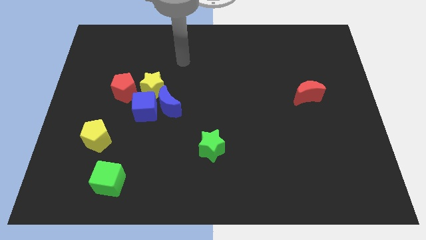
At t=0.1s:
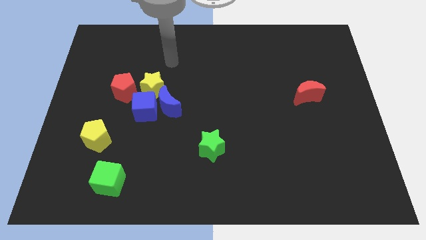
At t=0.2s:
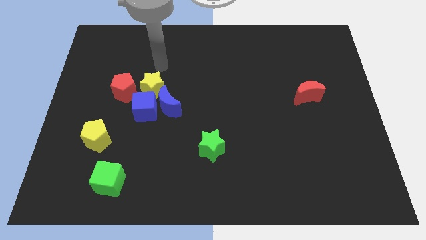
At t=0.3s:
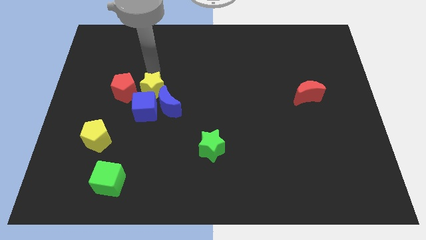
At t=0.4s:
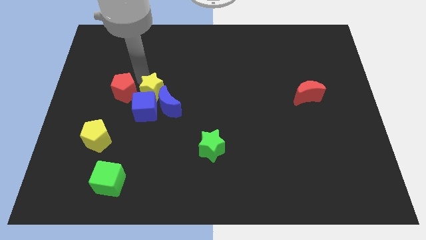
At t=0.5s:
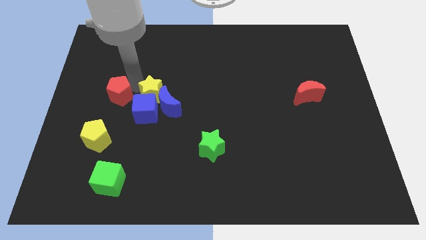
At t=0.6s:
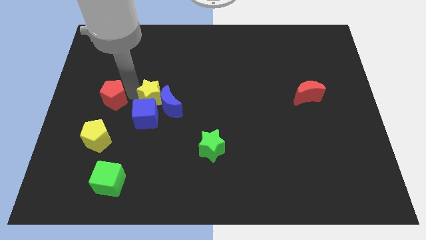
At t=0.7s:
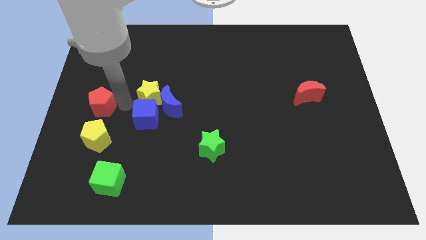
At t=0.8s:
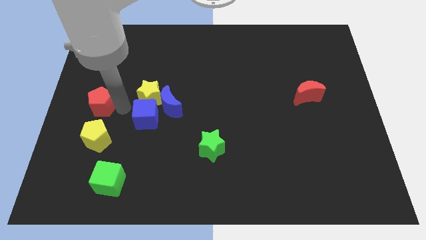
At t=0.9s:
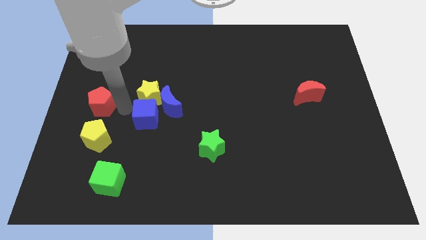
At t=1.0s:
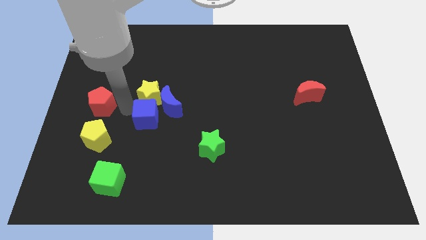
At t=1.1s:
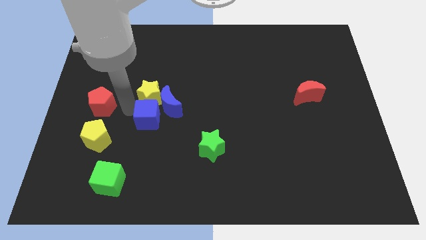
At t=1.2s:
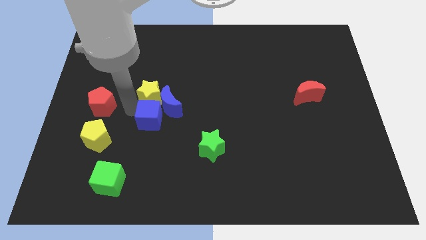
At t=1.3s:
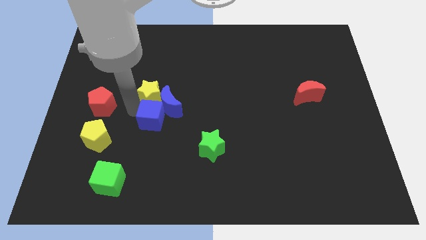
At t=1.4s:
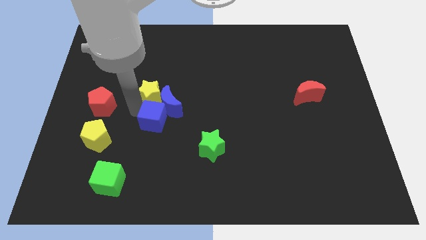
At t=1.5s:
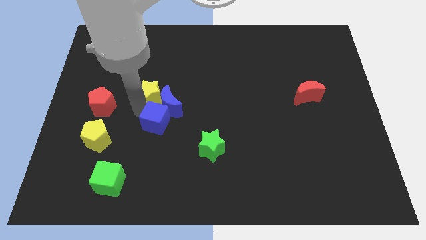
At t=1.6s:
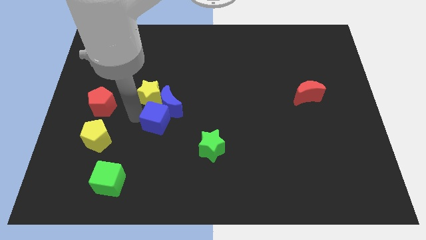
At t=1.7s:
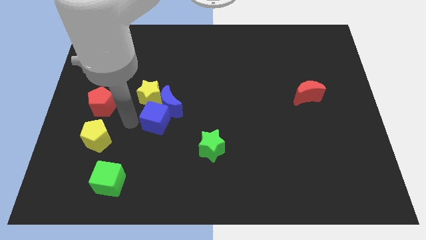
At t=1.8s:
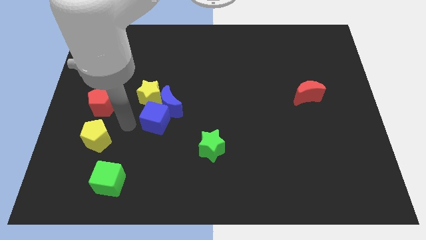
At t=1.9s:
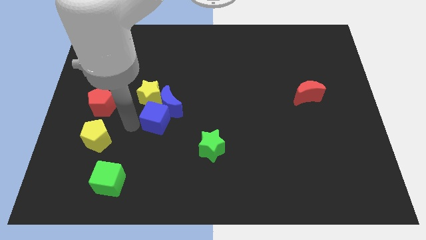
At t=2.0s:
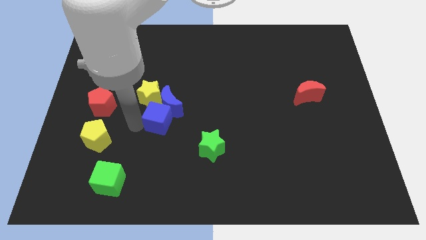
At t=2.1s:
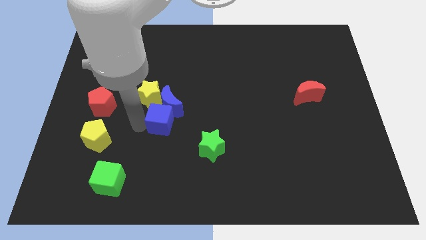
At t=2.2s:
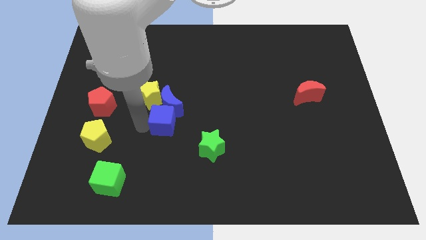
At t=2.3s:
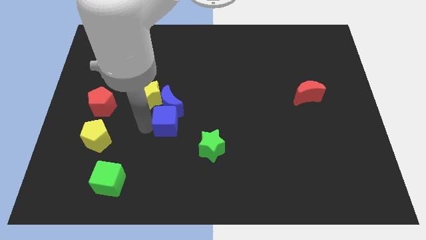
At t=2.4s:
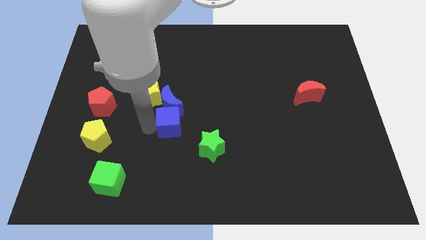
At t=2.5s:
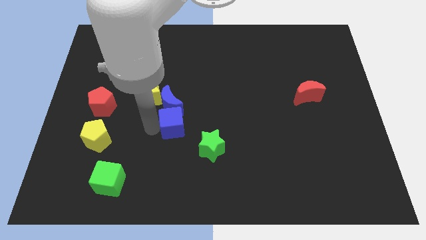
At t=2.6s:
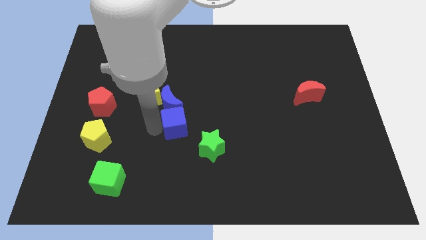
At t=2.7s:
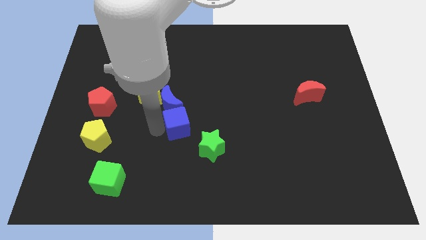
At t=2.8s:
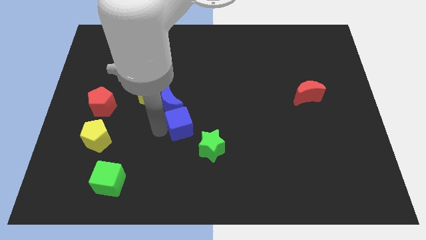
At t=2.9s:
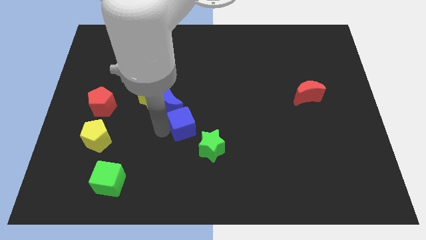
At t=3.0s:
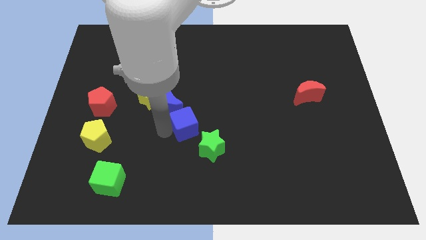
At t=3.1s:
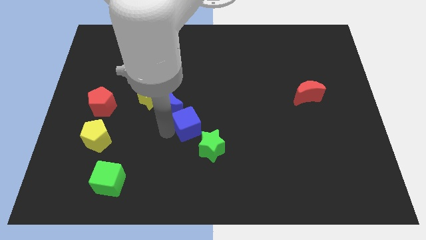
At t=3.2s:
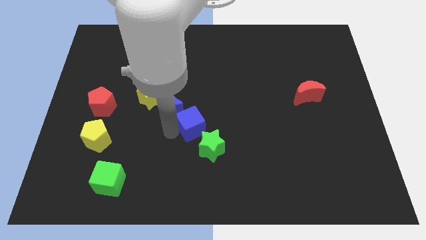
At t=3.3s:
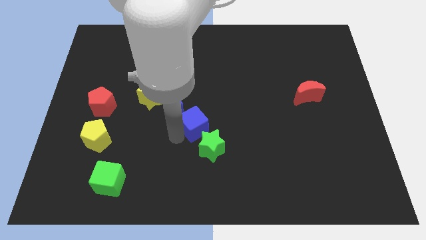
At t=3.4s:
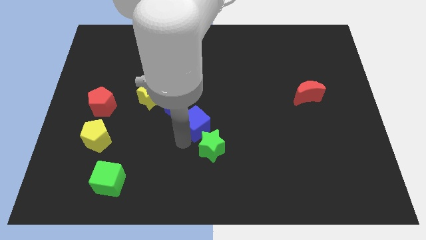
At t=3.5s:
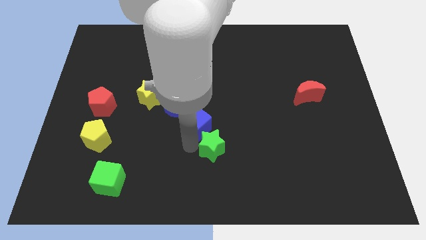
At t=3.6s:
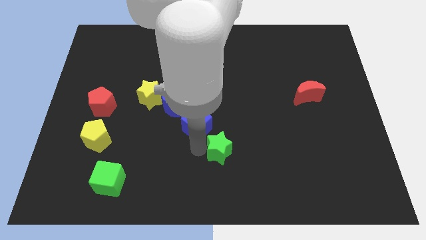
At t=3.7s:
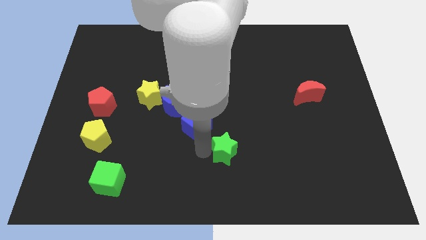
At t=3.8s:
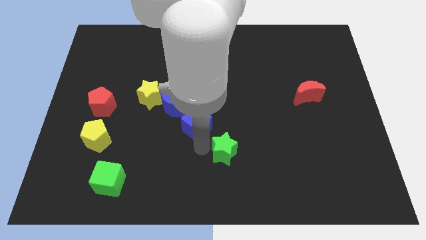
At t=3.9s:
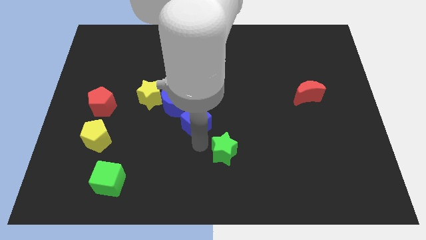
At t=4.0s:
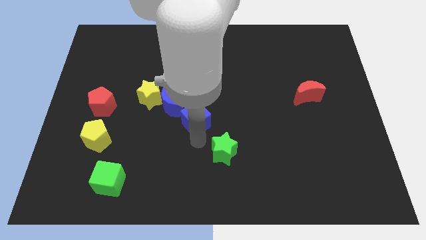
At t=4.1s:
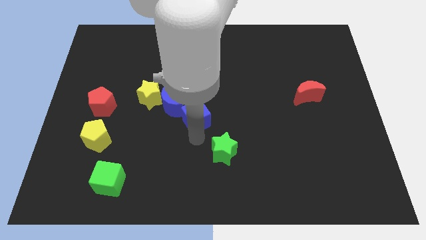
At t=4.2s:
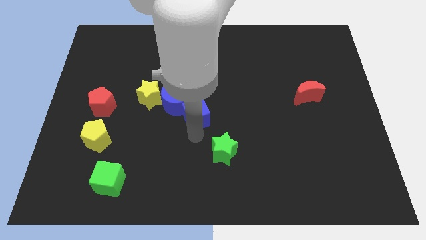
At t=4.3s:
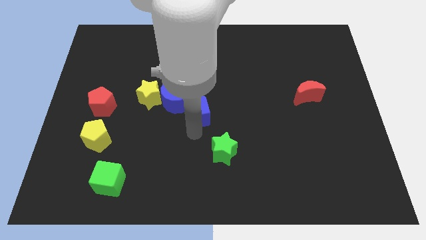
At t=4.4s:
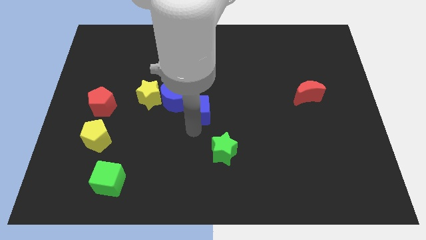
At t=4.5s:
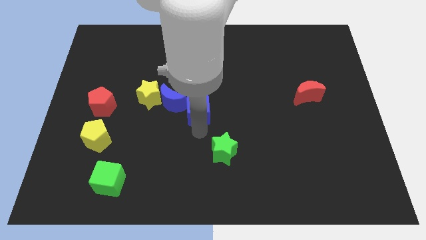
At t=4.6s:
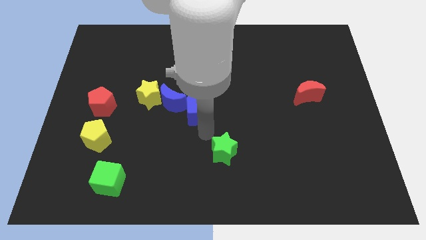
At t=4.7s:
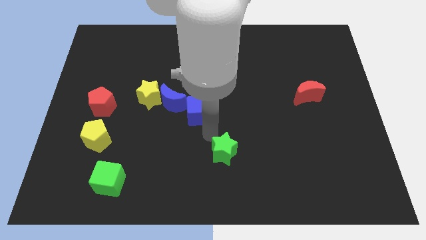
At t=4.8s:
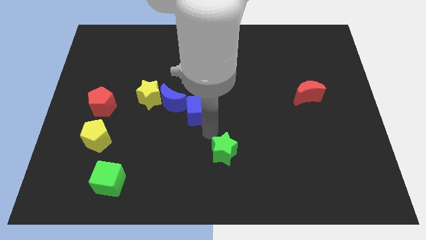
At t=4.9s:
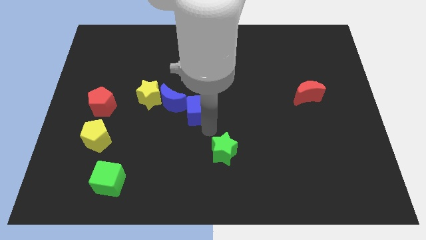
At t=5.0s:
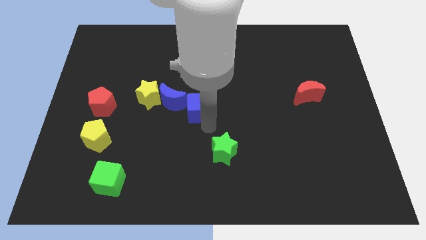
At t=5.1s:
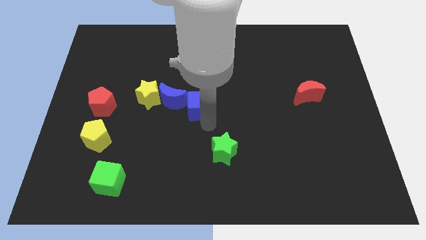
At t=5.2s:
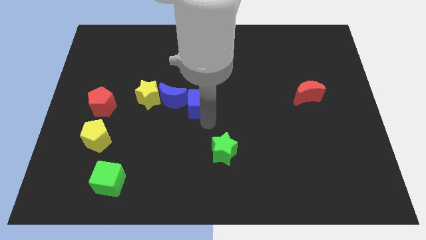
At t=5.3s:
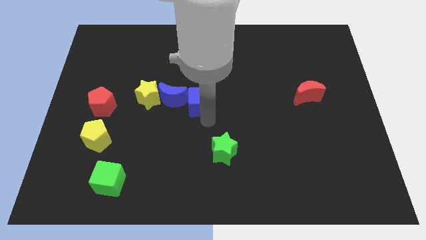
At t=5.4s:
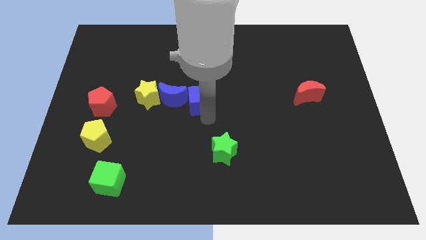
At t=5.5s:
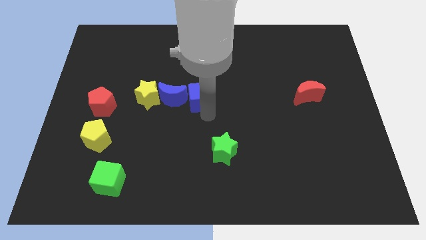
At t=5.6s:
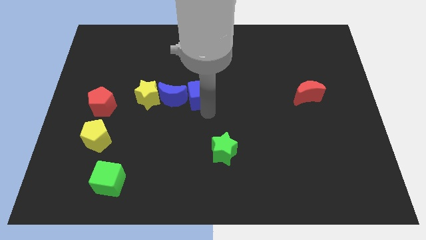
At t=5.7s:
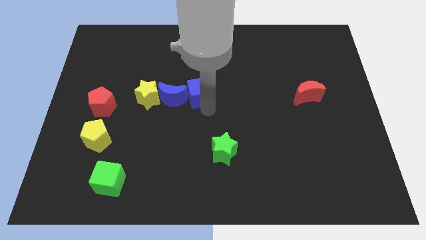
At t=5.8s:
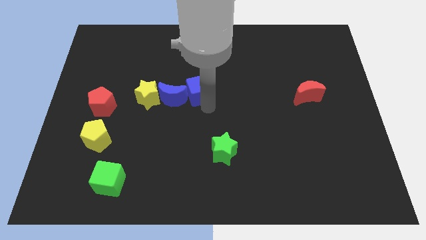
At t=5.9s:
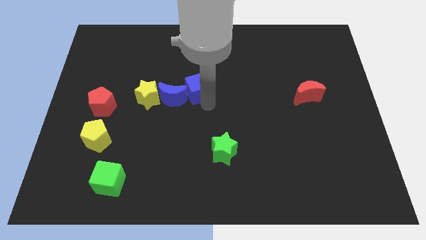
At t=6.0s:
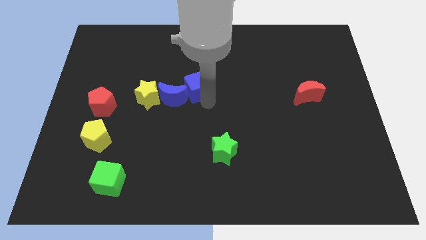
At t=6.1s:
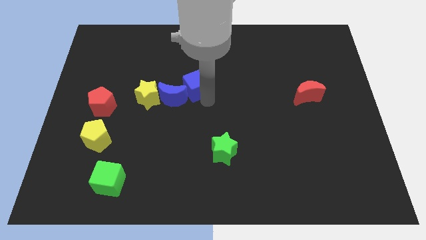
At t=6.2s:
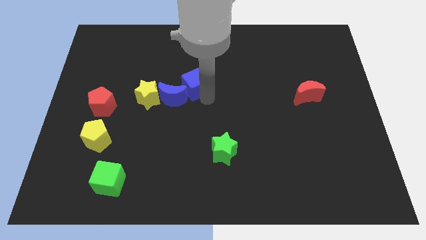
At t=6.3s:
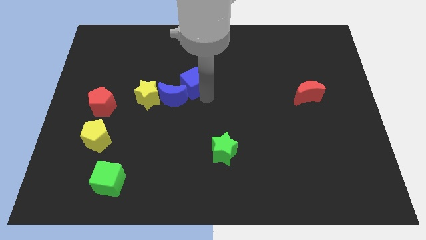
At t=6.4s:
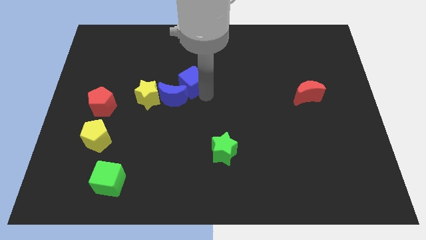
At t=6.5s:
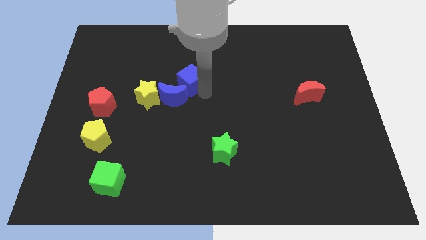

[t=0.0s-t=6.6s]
slide the blue cube to the top right of the yellow star
